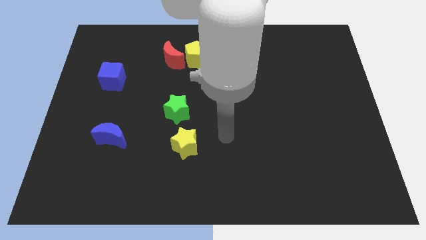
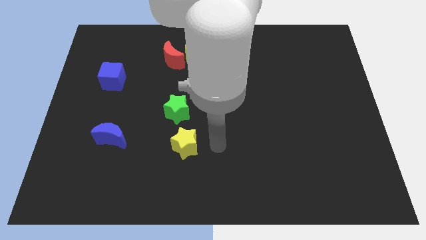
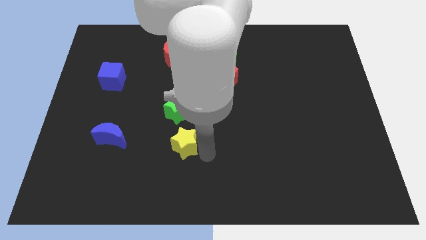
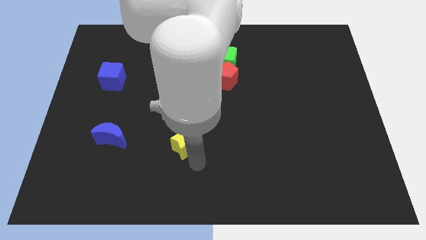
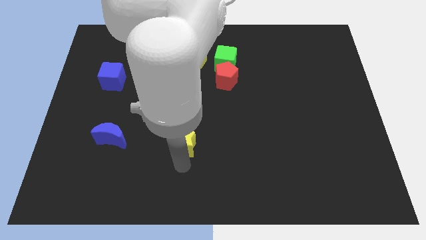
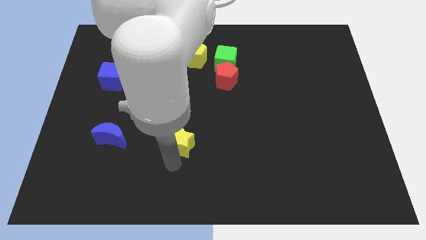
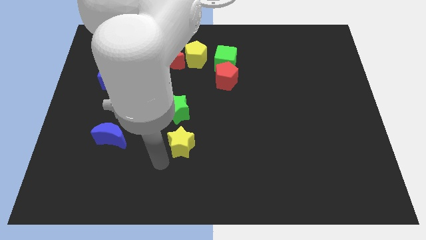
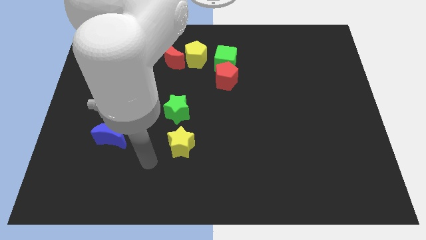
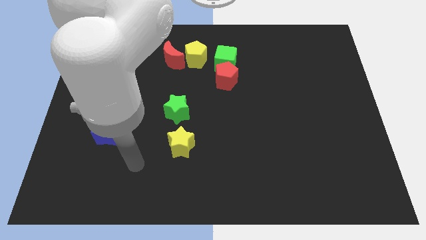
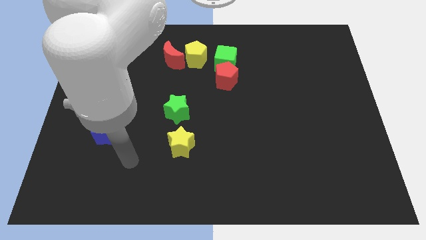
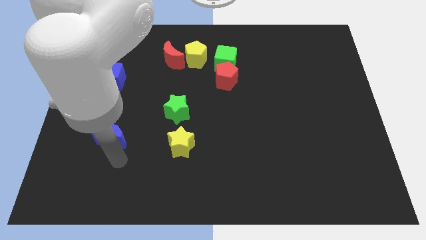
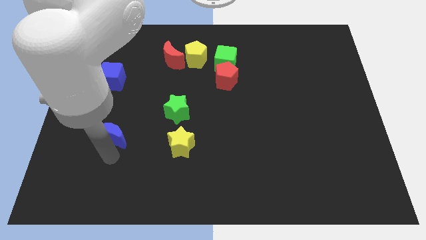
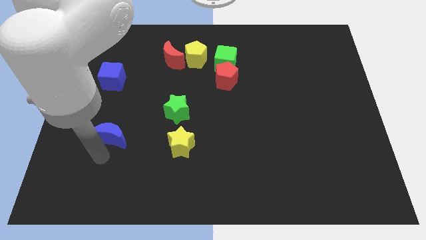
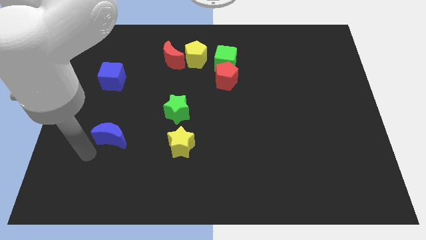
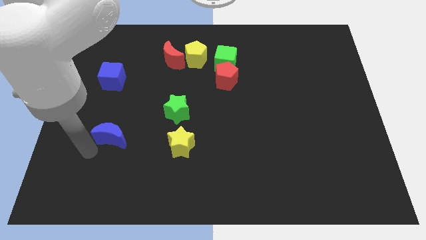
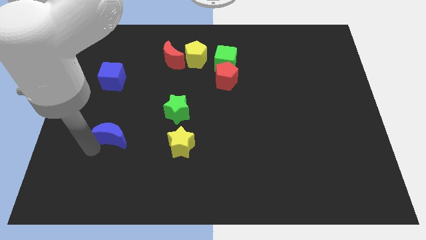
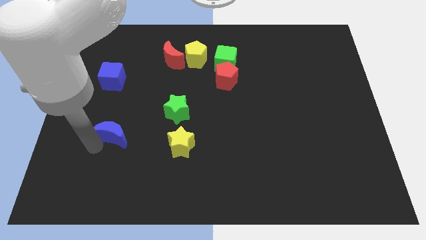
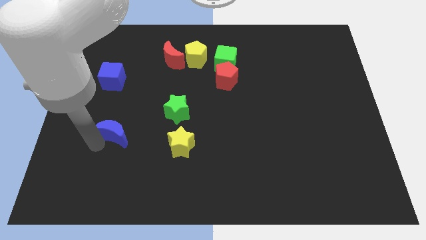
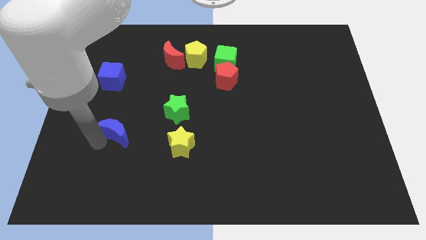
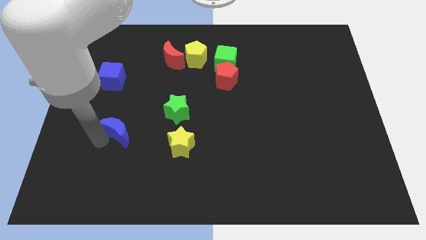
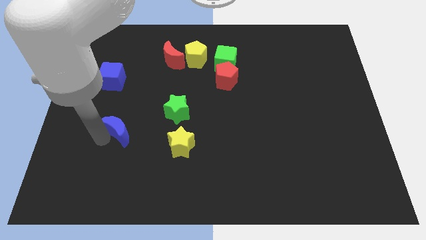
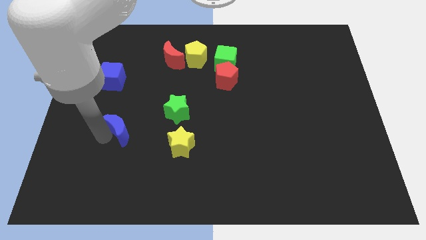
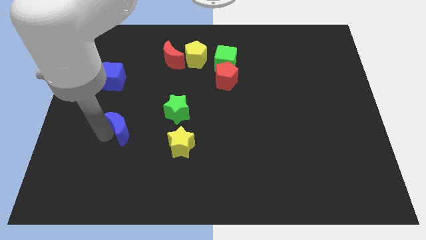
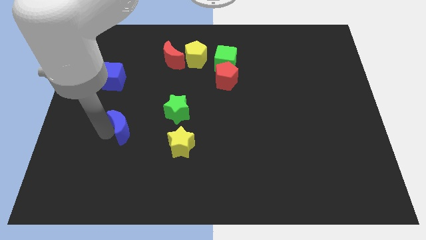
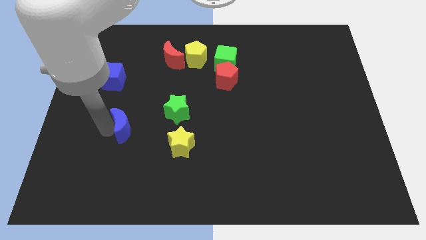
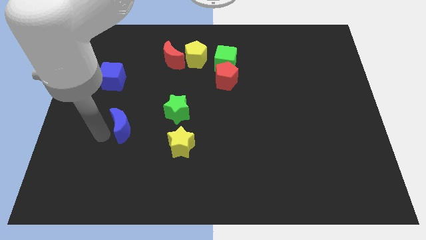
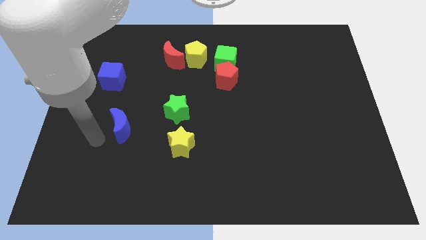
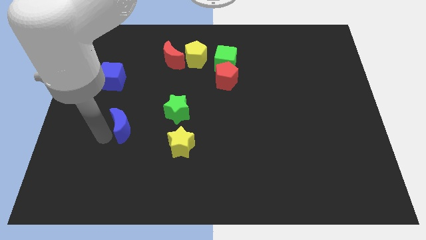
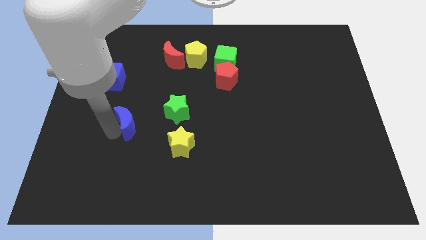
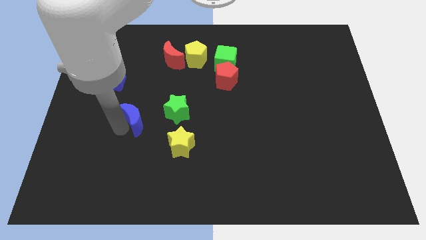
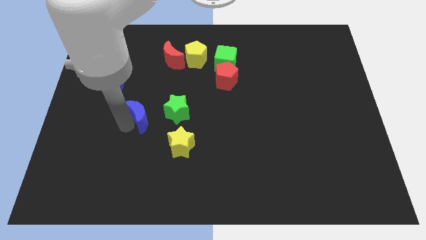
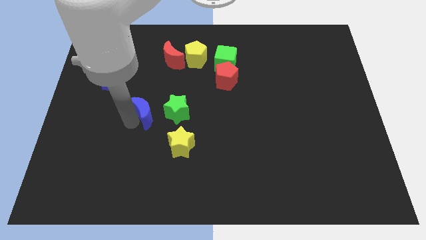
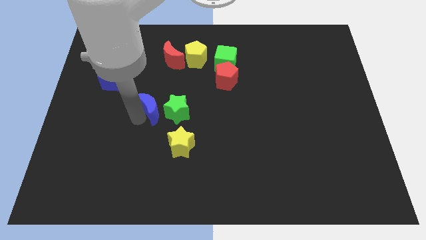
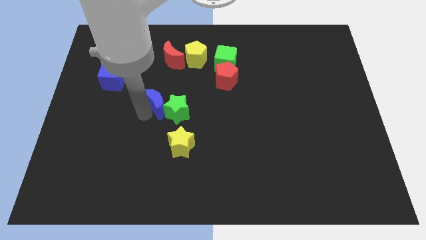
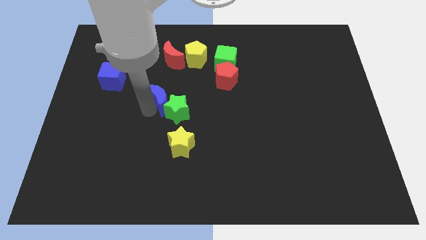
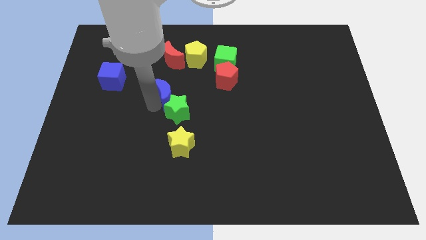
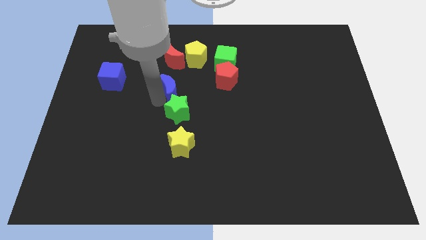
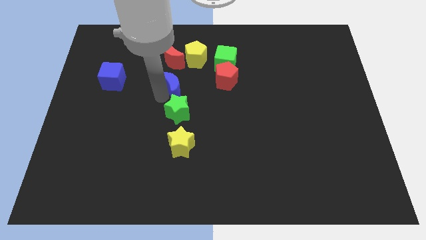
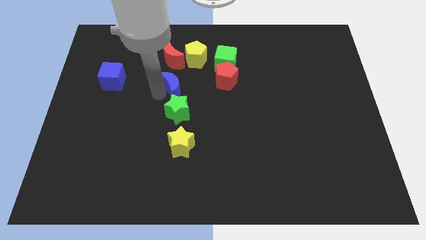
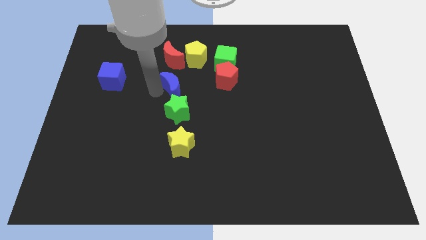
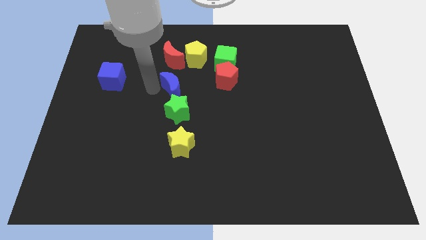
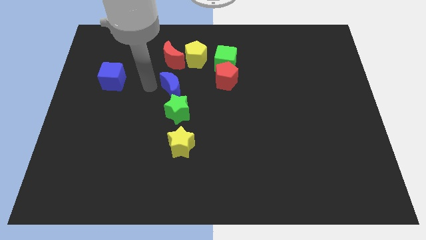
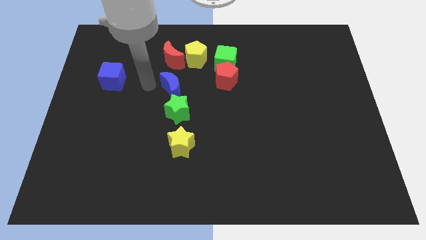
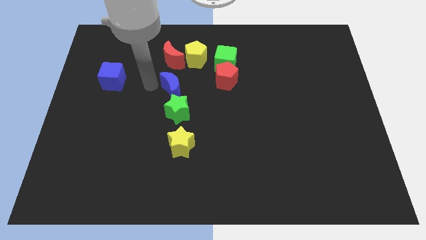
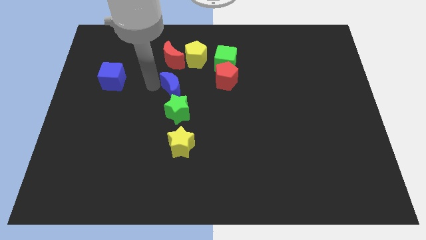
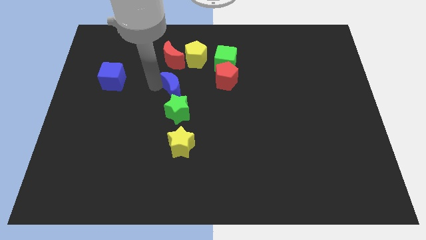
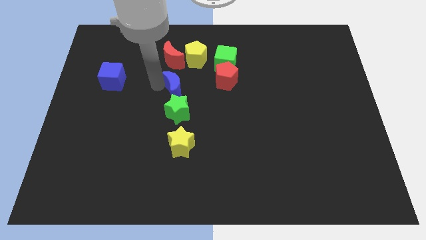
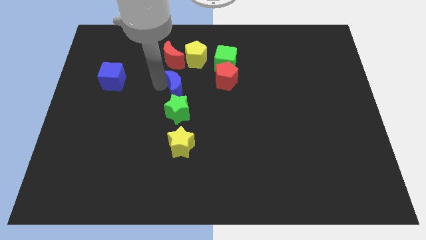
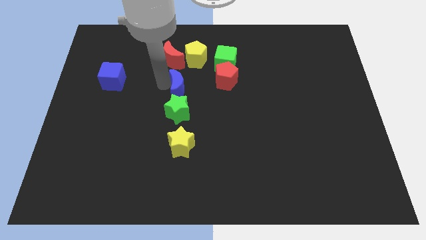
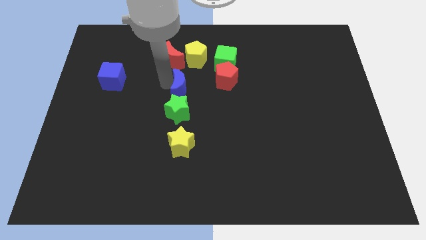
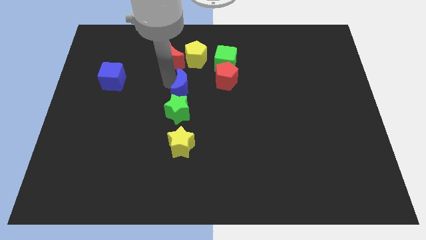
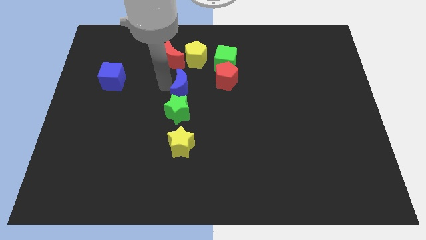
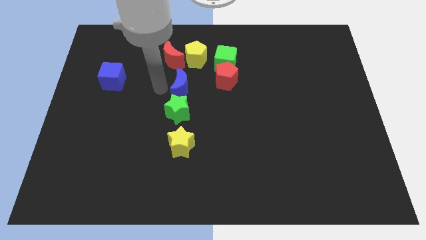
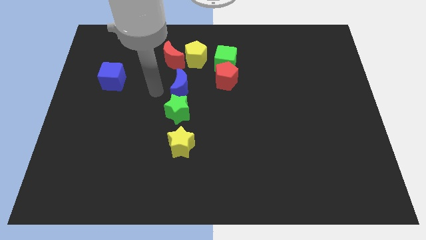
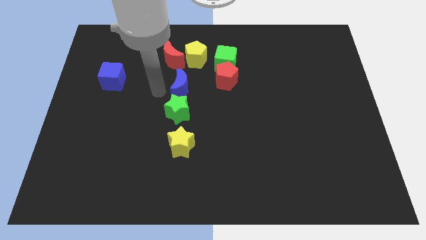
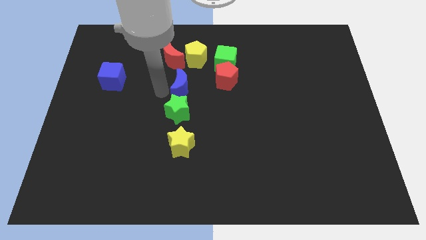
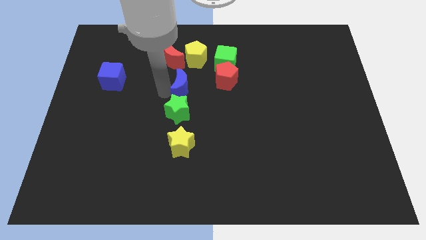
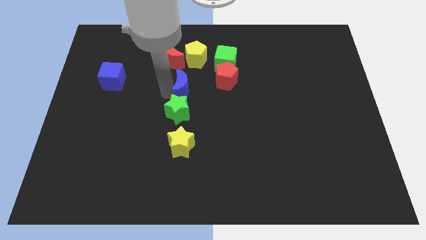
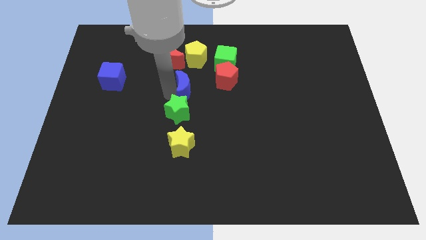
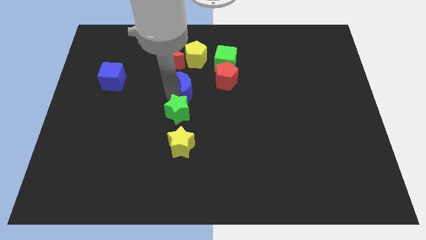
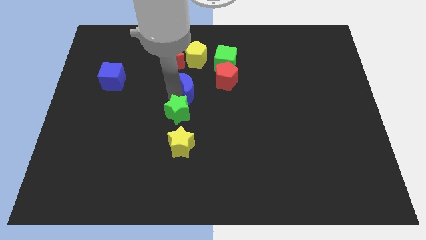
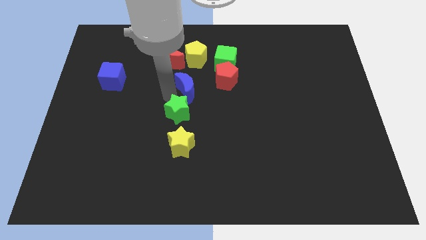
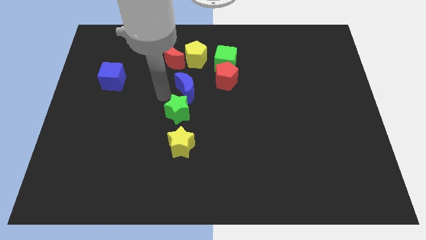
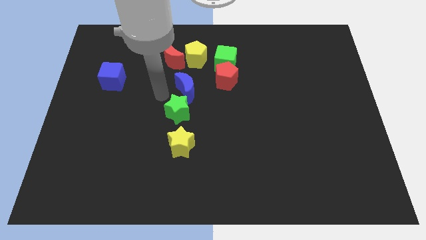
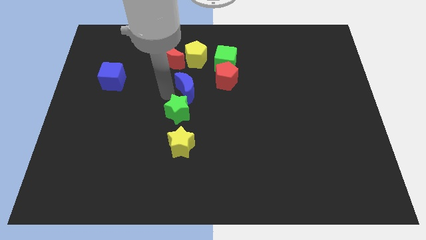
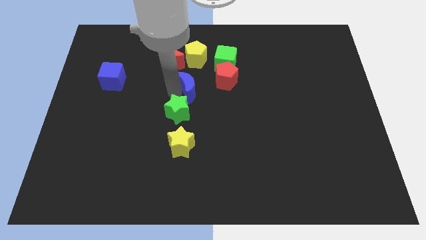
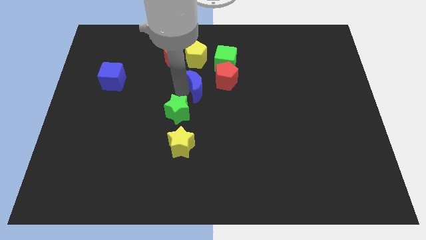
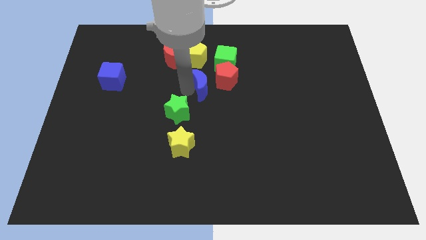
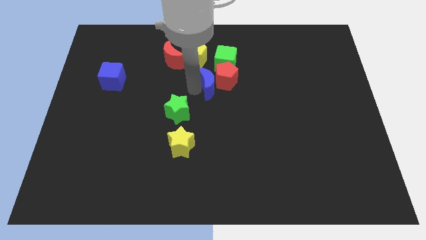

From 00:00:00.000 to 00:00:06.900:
push the blue moon to the red pentagon

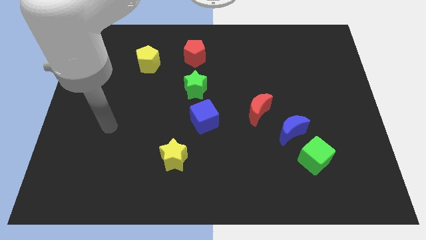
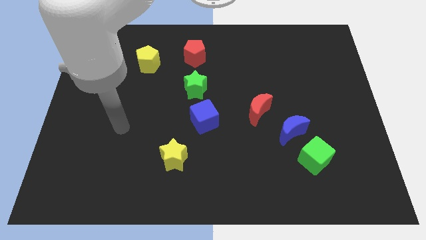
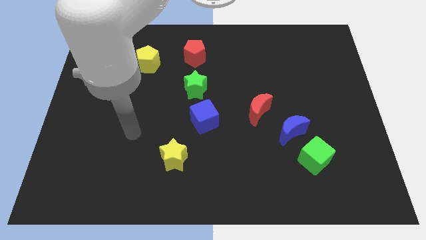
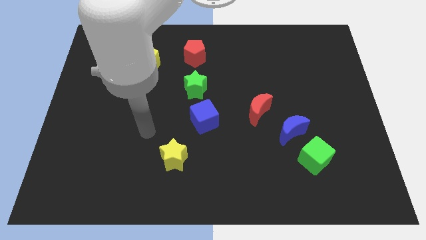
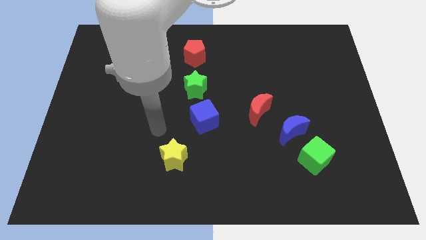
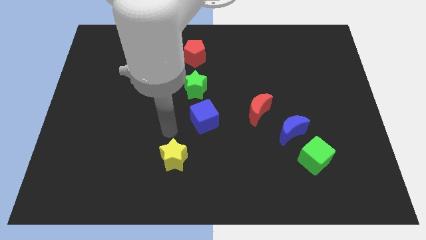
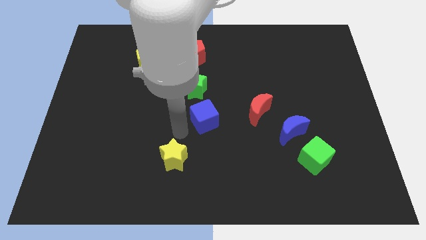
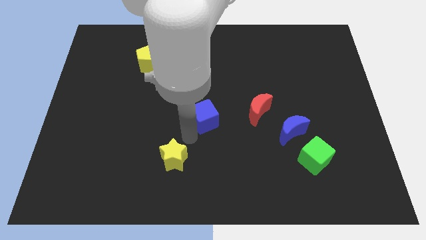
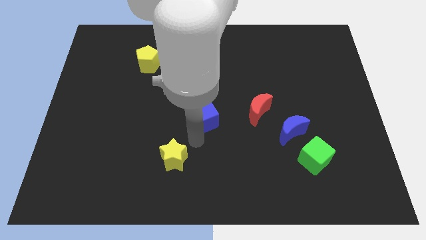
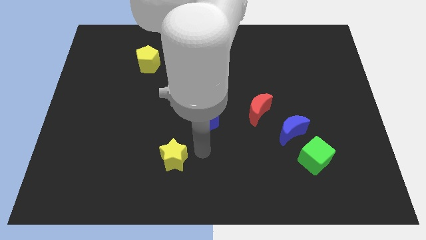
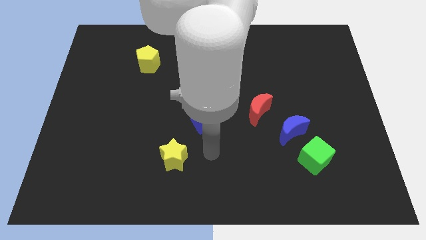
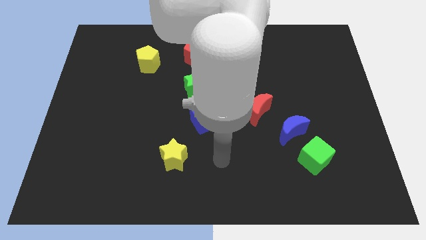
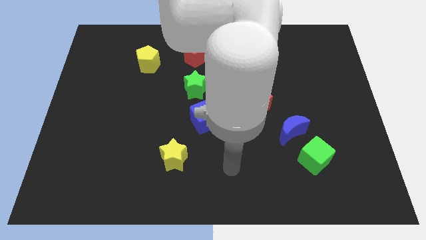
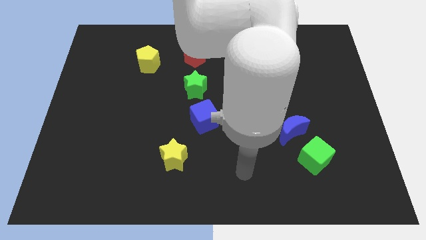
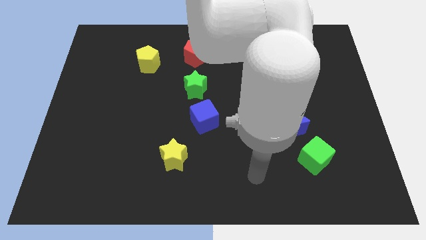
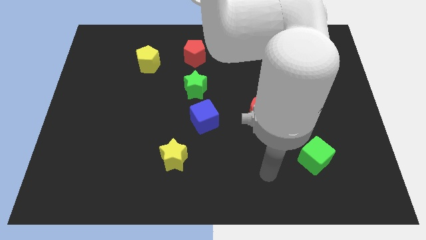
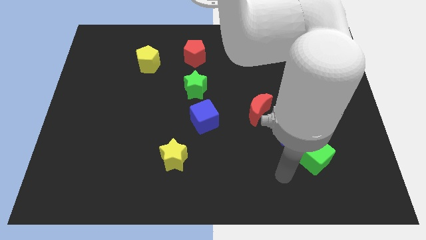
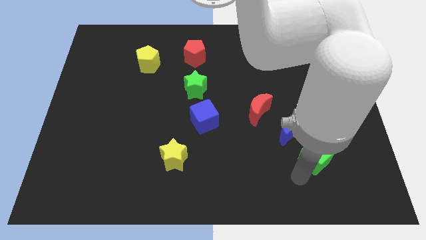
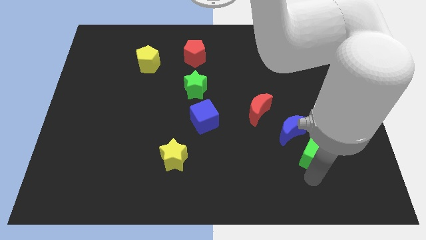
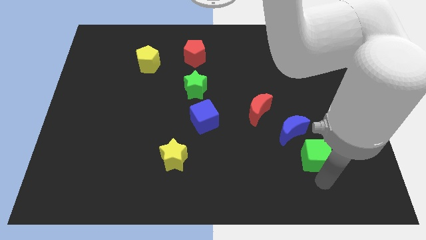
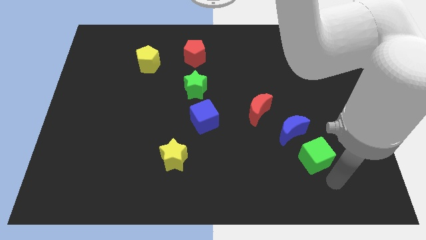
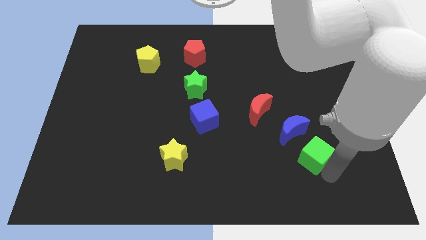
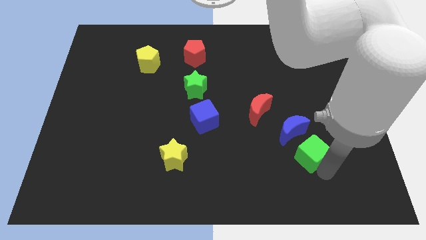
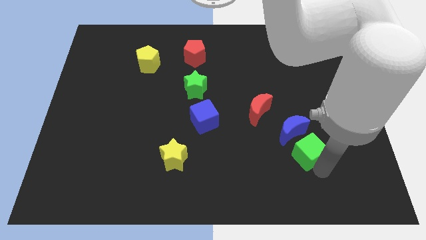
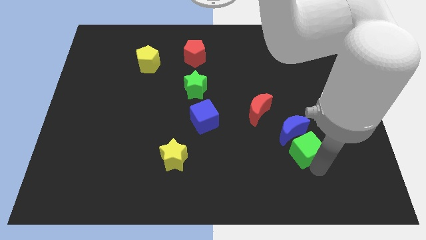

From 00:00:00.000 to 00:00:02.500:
push the green cube close to the blue moon
